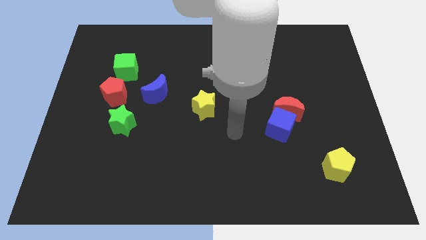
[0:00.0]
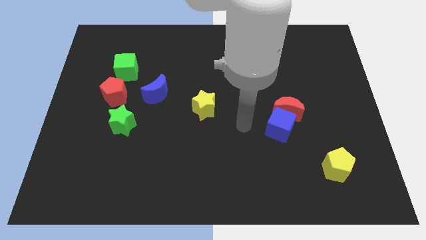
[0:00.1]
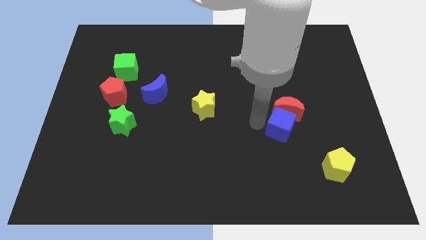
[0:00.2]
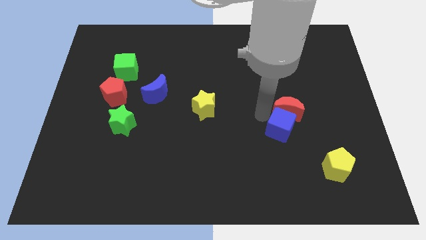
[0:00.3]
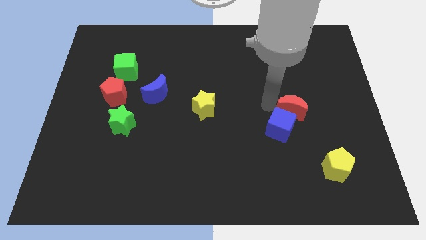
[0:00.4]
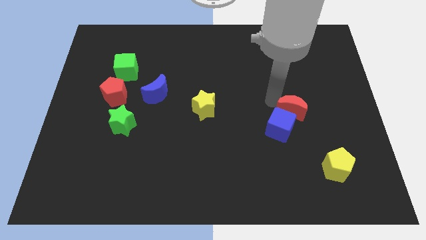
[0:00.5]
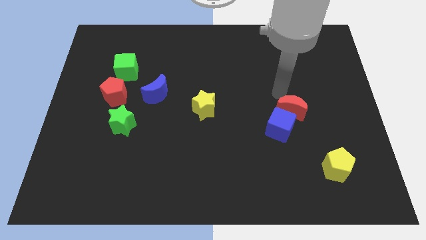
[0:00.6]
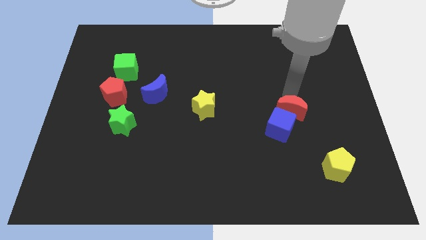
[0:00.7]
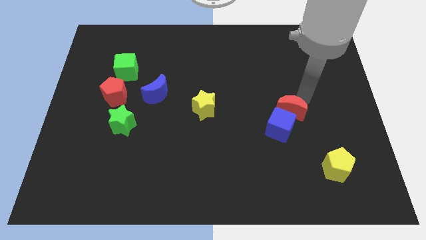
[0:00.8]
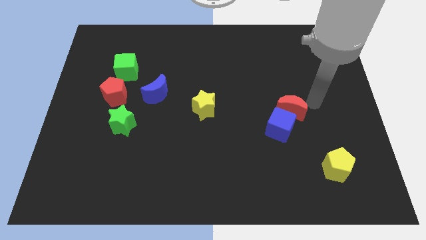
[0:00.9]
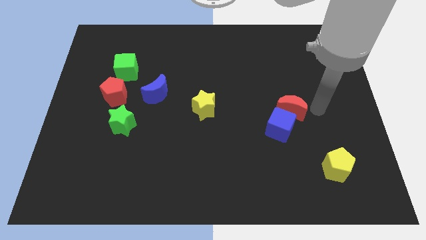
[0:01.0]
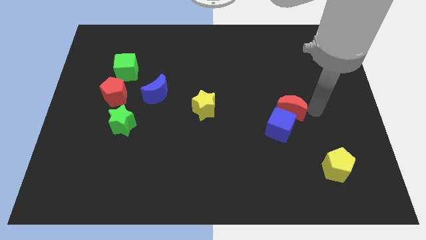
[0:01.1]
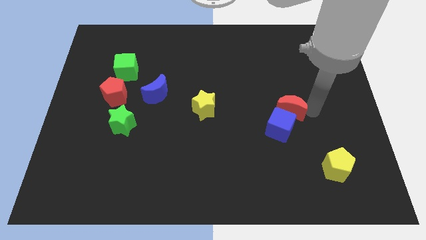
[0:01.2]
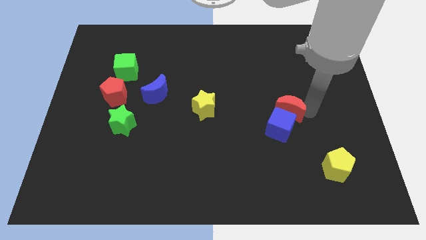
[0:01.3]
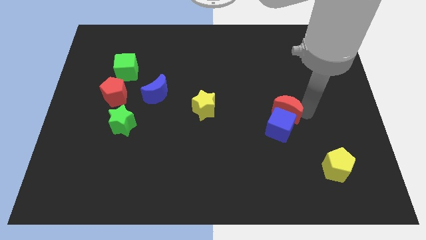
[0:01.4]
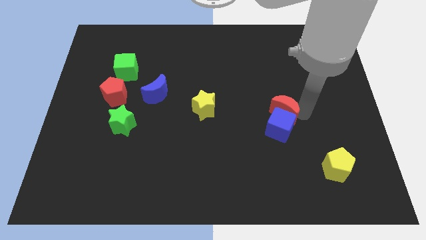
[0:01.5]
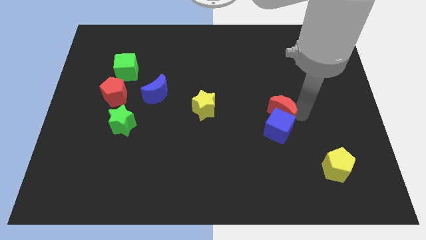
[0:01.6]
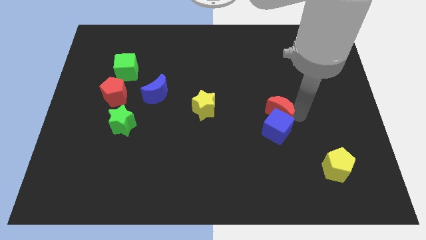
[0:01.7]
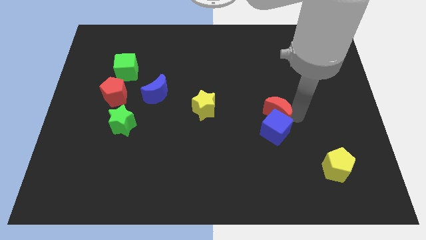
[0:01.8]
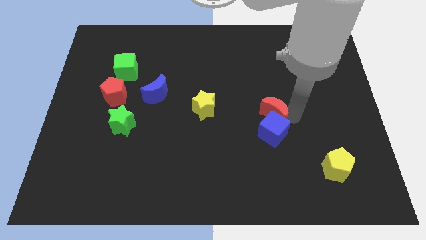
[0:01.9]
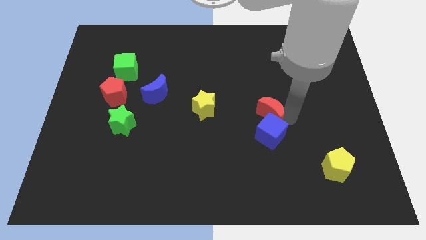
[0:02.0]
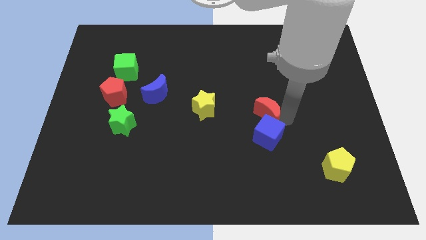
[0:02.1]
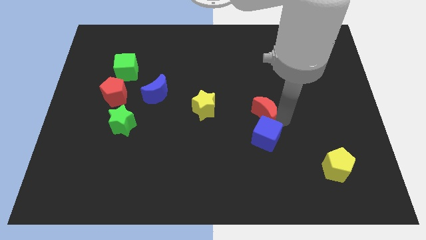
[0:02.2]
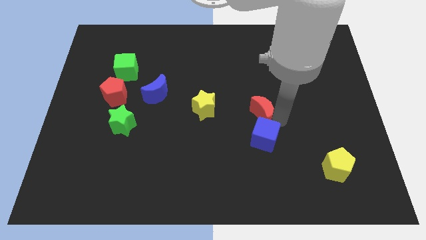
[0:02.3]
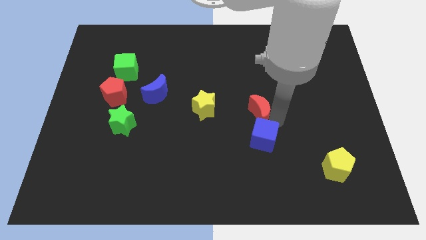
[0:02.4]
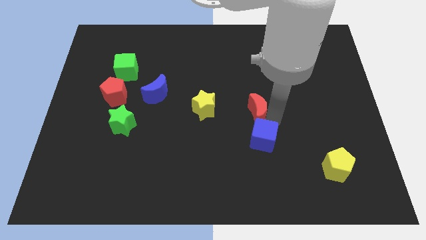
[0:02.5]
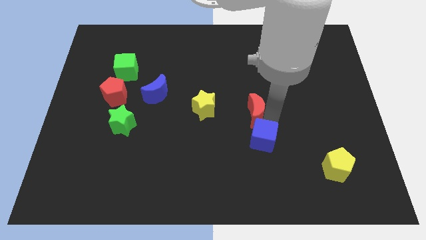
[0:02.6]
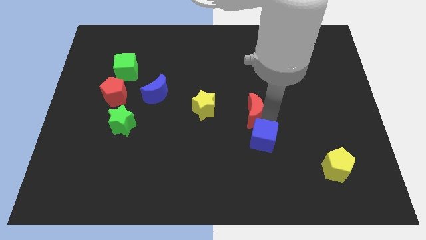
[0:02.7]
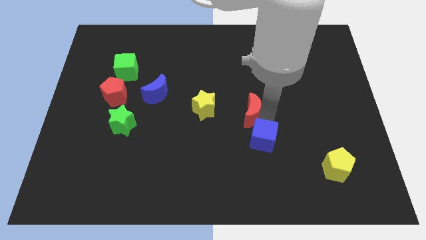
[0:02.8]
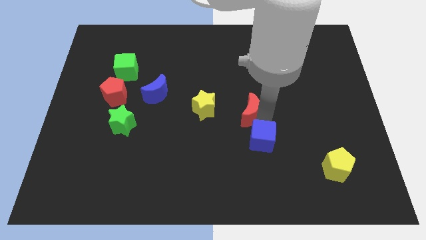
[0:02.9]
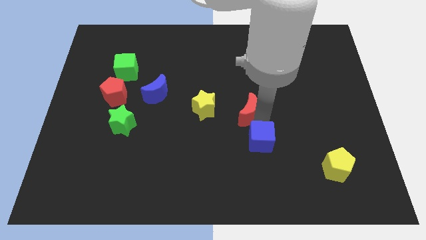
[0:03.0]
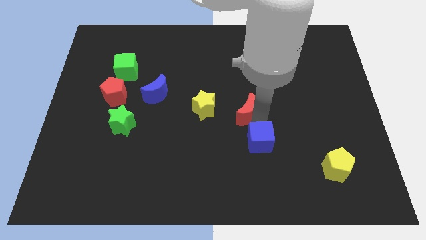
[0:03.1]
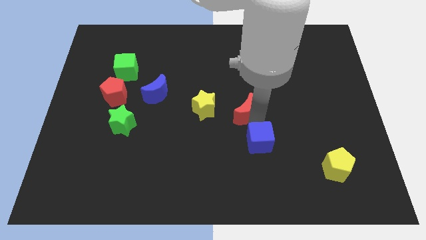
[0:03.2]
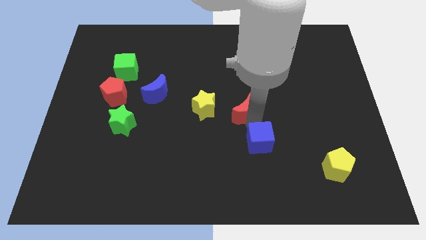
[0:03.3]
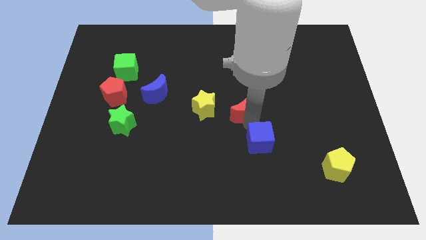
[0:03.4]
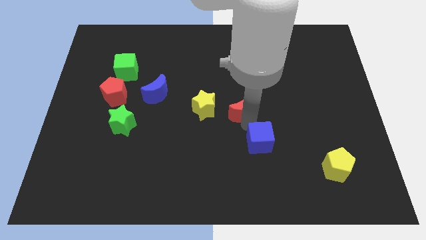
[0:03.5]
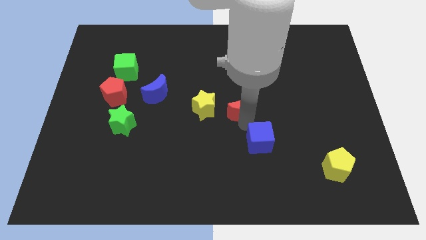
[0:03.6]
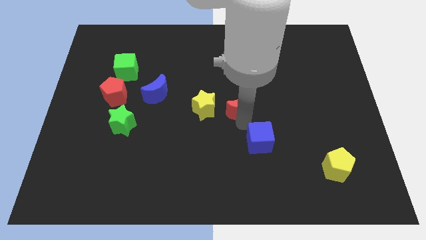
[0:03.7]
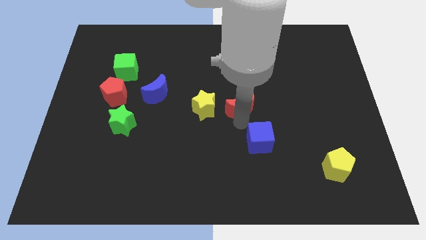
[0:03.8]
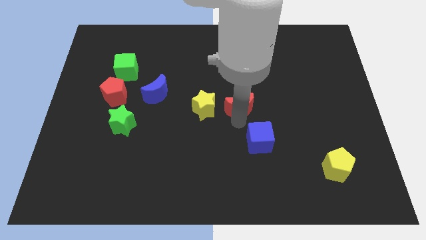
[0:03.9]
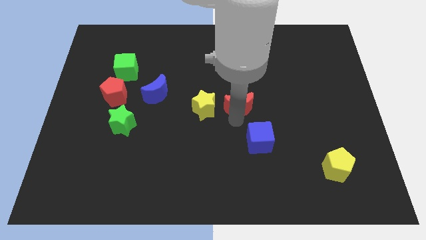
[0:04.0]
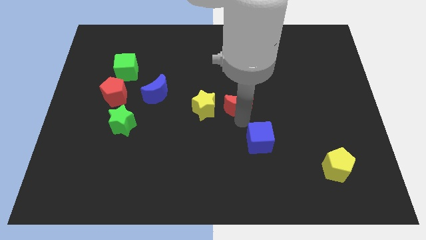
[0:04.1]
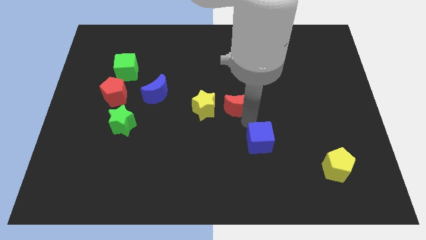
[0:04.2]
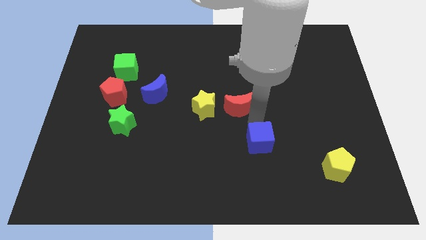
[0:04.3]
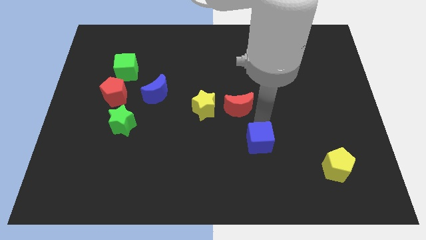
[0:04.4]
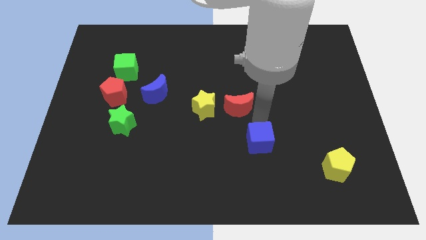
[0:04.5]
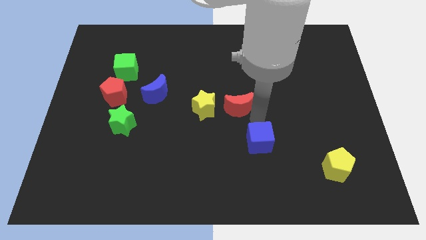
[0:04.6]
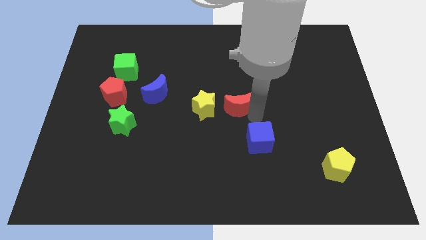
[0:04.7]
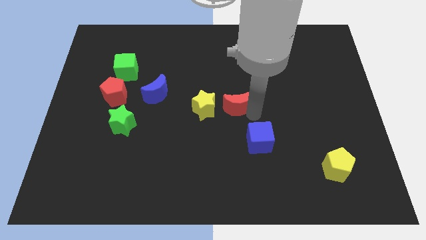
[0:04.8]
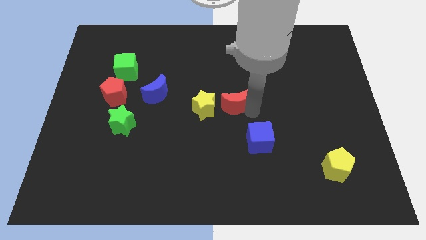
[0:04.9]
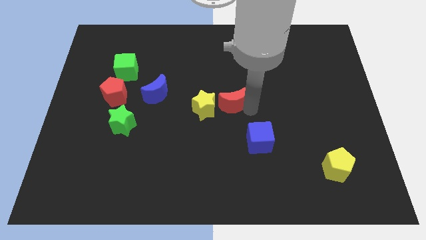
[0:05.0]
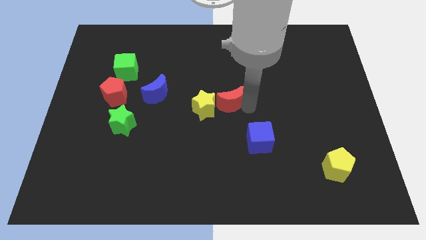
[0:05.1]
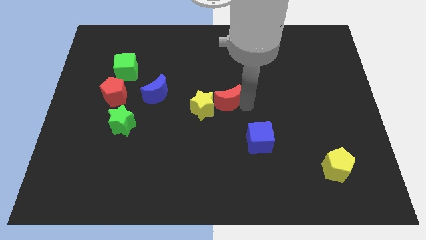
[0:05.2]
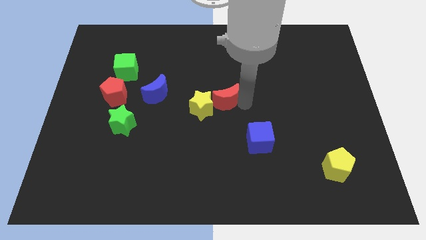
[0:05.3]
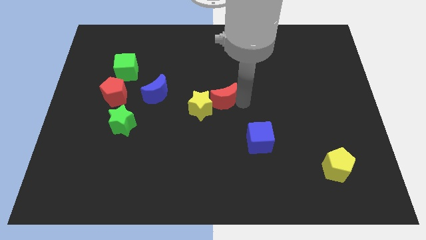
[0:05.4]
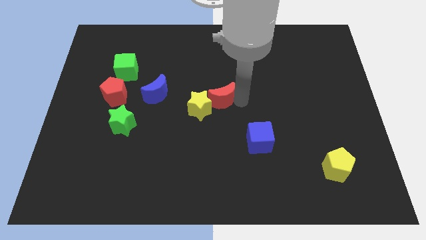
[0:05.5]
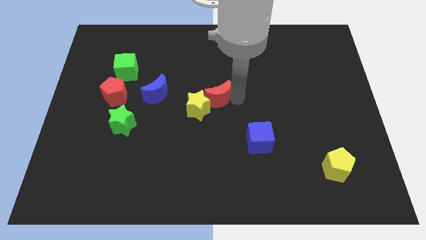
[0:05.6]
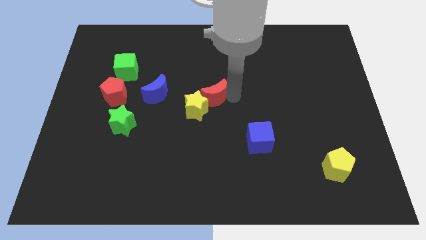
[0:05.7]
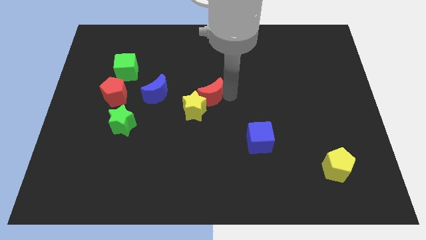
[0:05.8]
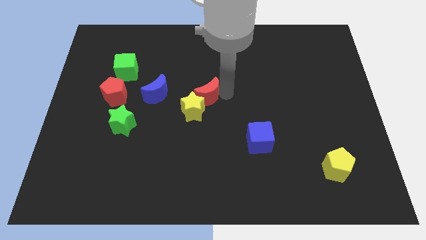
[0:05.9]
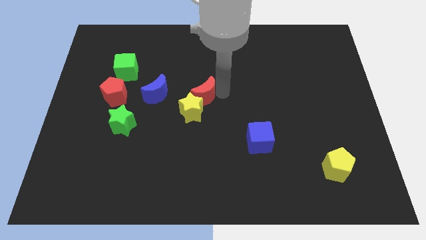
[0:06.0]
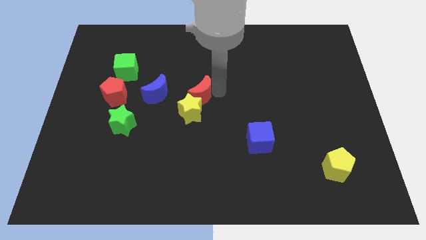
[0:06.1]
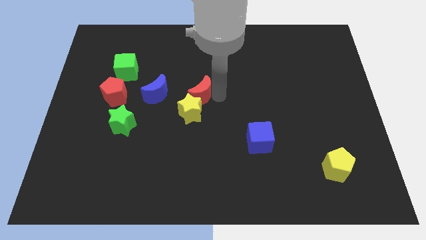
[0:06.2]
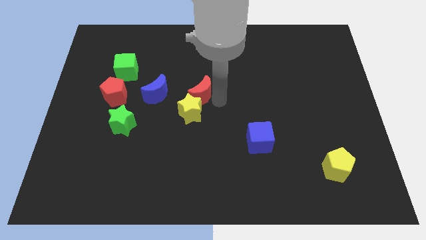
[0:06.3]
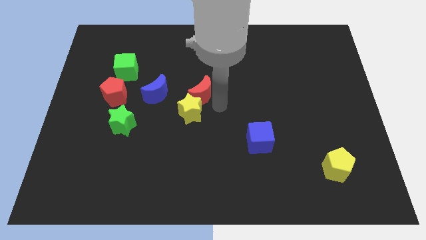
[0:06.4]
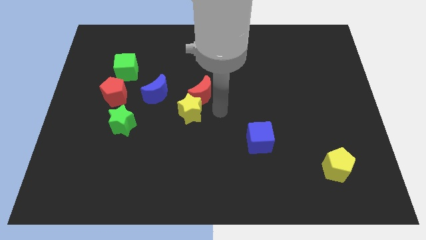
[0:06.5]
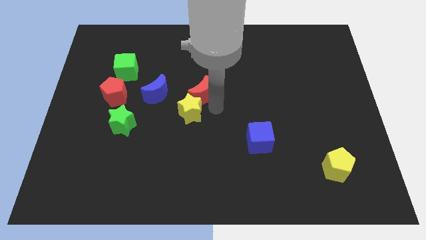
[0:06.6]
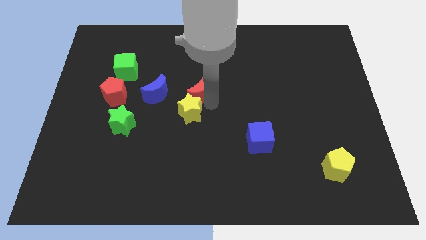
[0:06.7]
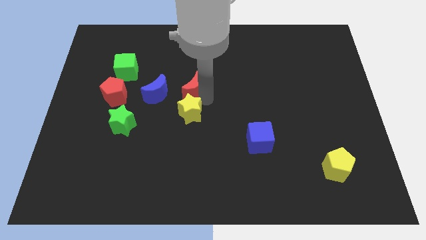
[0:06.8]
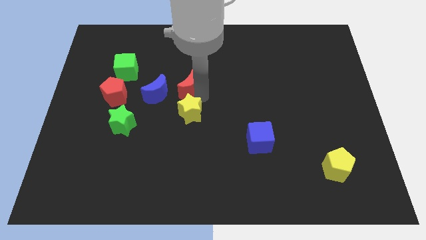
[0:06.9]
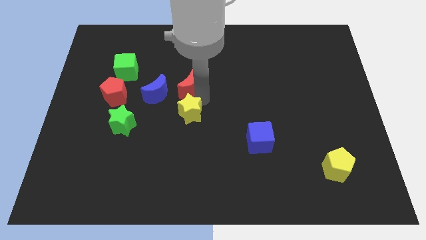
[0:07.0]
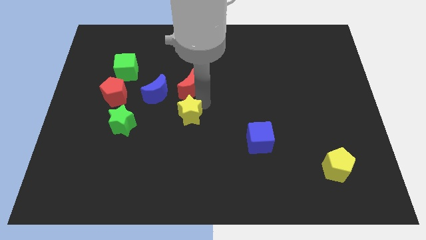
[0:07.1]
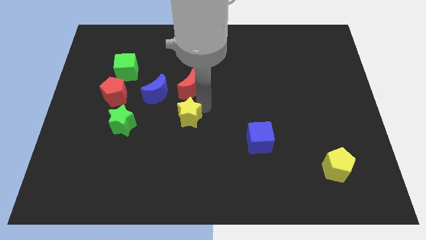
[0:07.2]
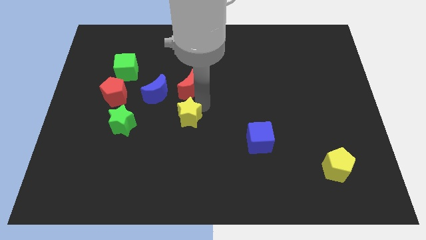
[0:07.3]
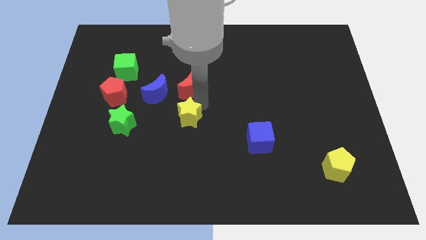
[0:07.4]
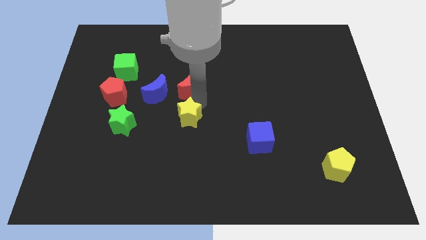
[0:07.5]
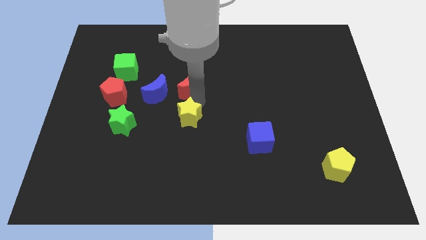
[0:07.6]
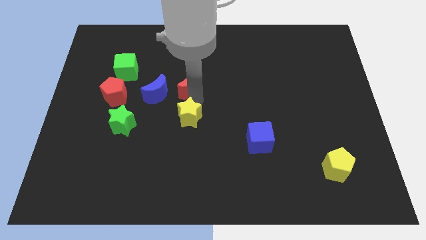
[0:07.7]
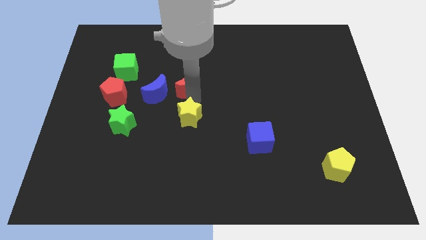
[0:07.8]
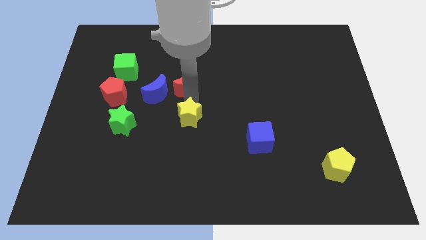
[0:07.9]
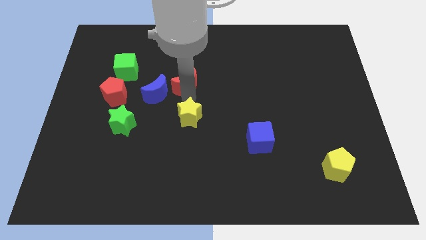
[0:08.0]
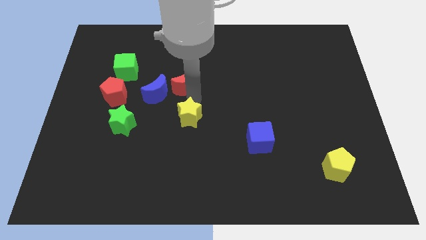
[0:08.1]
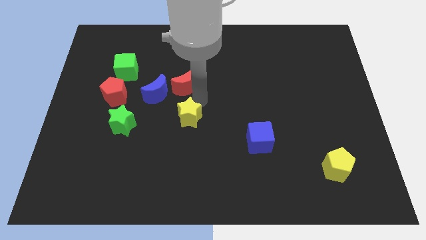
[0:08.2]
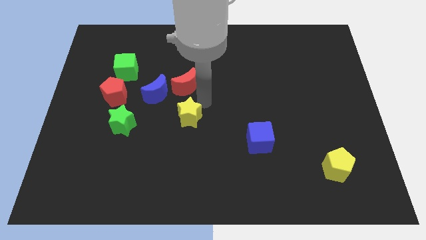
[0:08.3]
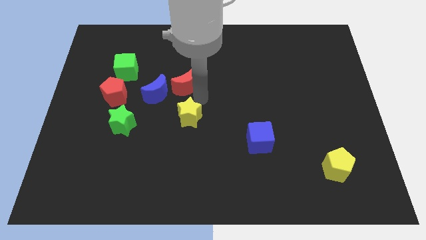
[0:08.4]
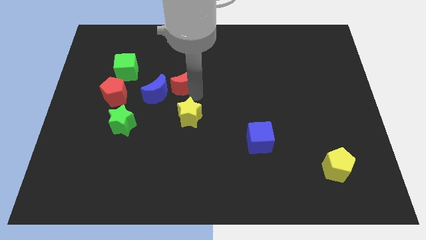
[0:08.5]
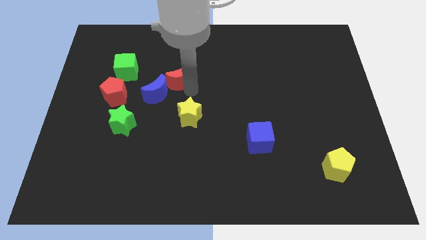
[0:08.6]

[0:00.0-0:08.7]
push the red moon just right of the green cube
